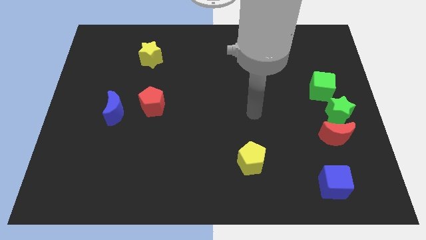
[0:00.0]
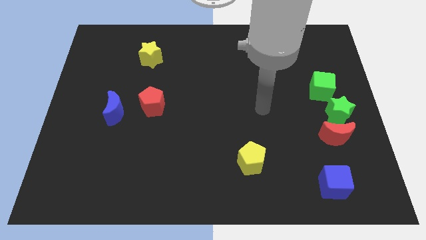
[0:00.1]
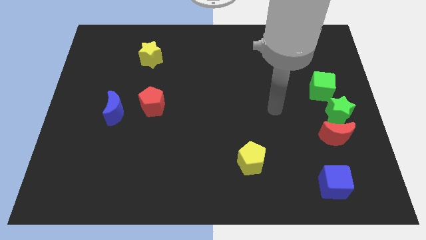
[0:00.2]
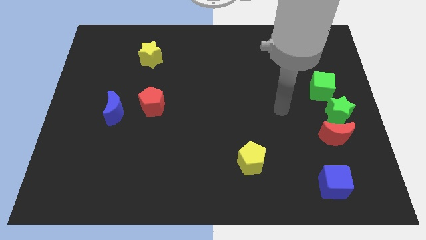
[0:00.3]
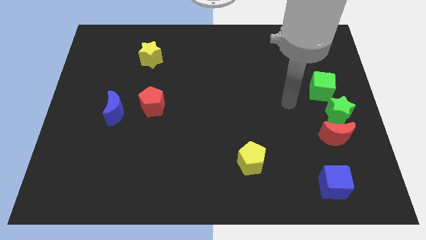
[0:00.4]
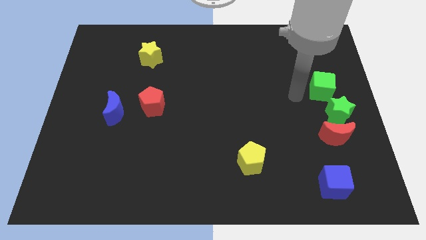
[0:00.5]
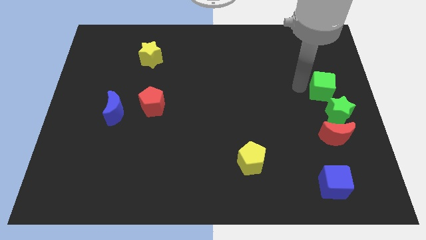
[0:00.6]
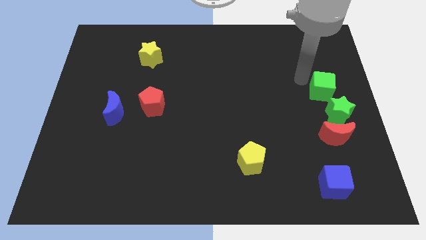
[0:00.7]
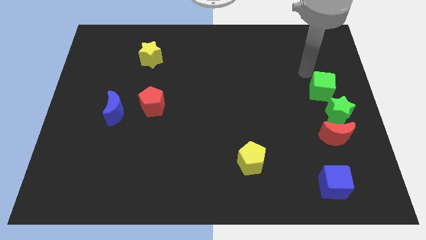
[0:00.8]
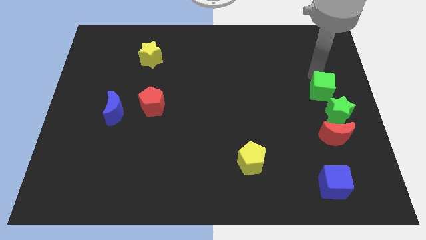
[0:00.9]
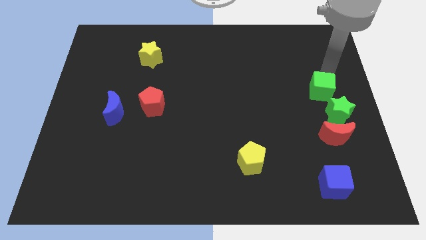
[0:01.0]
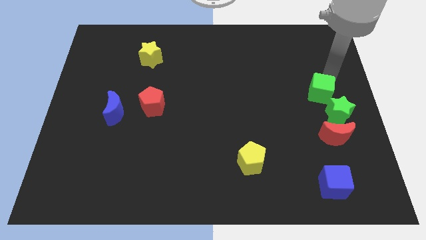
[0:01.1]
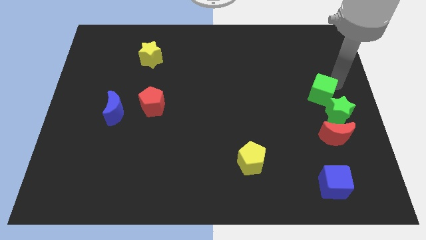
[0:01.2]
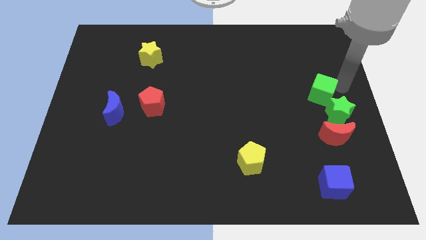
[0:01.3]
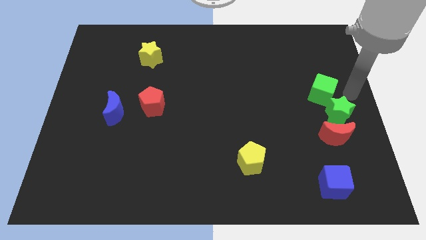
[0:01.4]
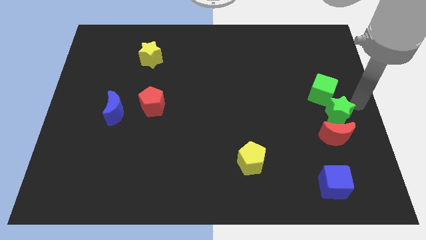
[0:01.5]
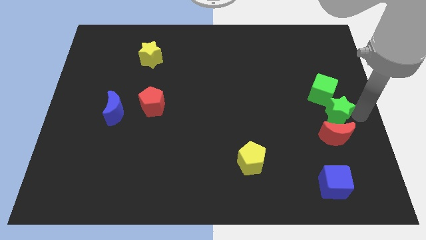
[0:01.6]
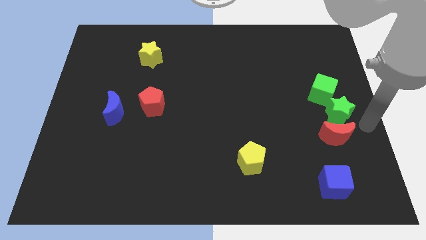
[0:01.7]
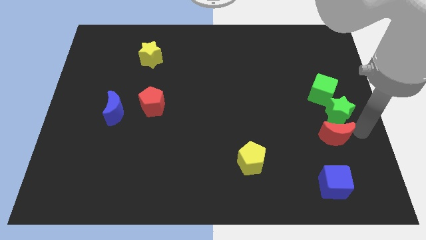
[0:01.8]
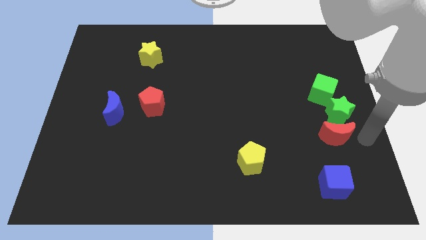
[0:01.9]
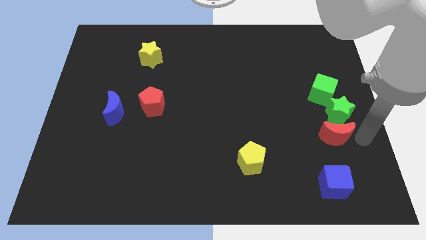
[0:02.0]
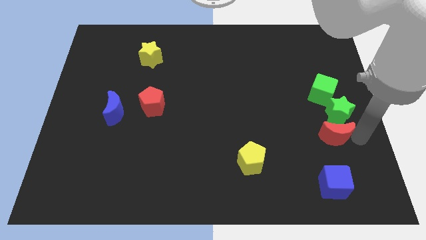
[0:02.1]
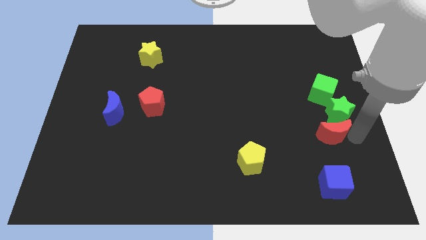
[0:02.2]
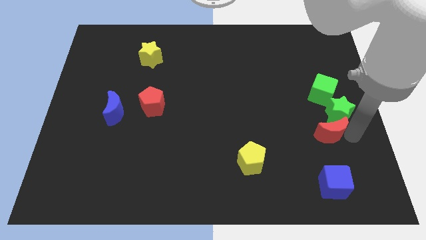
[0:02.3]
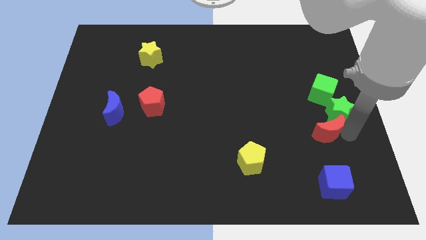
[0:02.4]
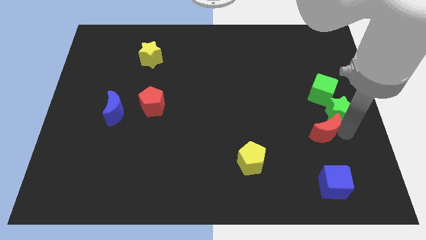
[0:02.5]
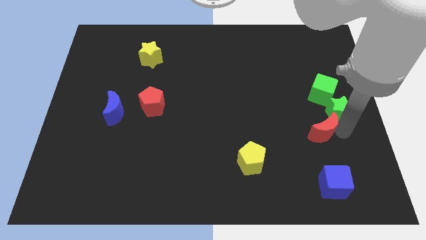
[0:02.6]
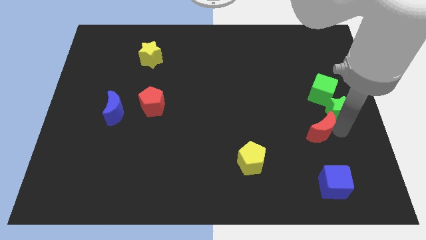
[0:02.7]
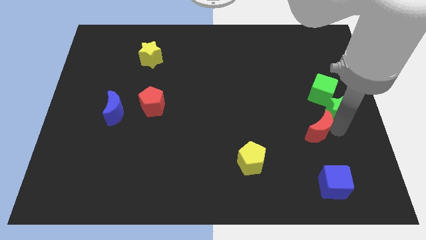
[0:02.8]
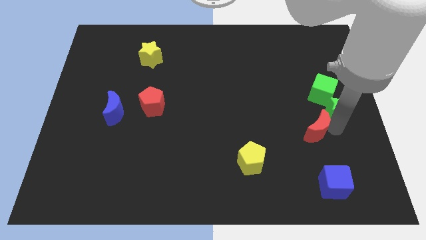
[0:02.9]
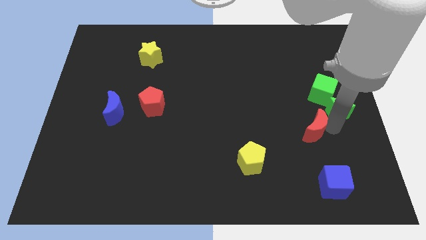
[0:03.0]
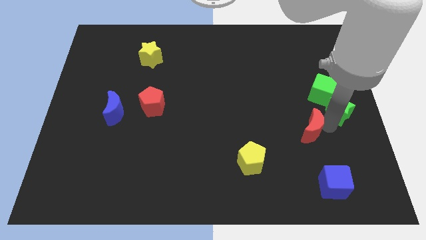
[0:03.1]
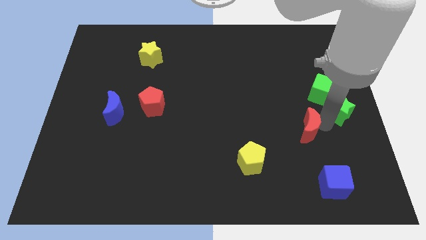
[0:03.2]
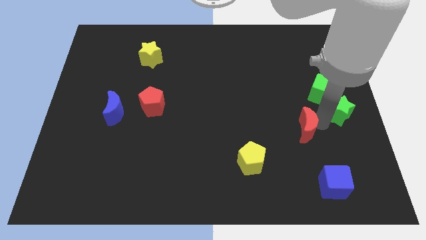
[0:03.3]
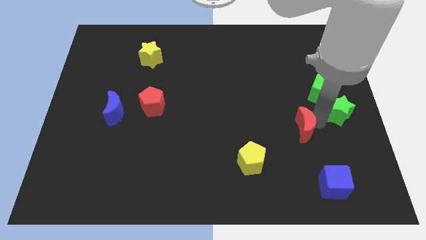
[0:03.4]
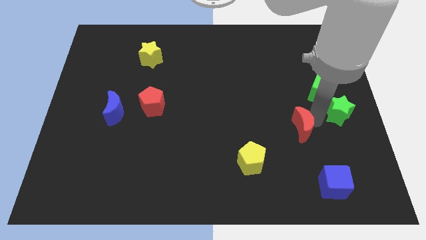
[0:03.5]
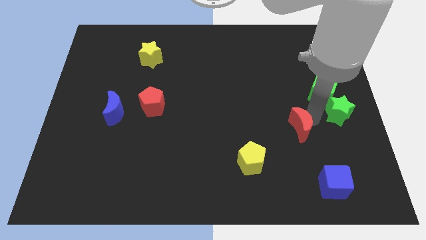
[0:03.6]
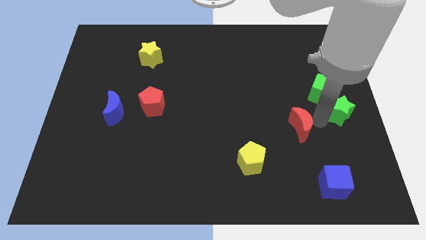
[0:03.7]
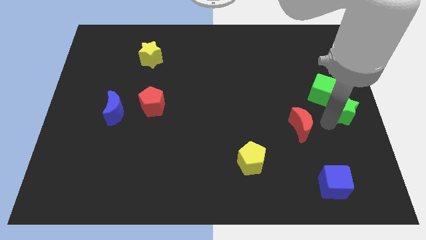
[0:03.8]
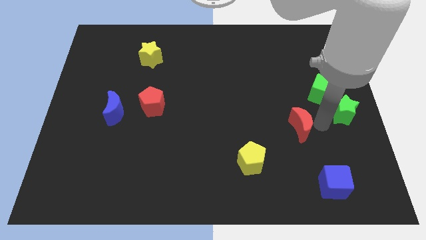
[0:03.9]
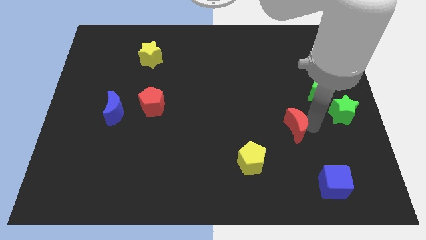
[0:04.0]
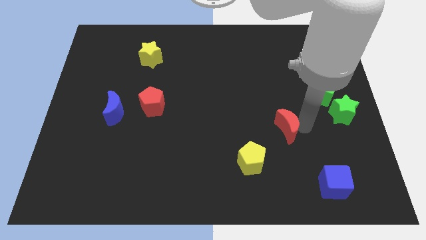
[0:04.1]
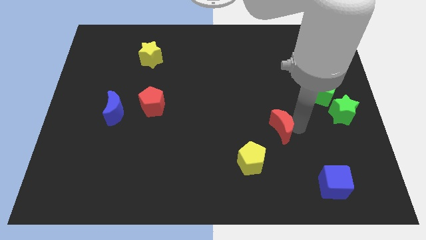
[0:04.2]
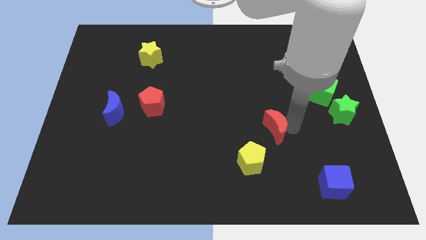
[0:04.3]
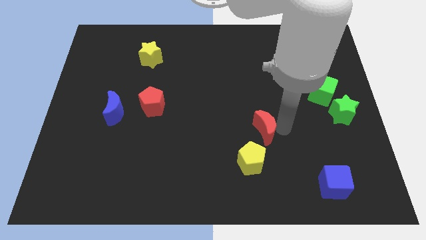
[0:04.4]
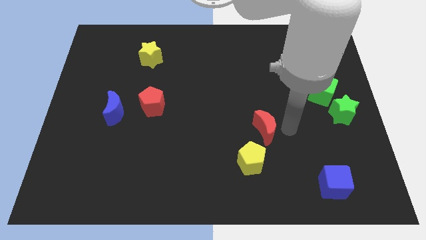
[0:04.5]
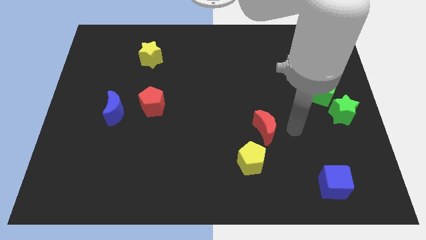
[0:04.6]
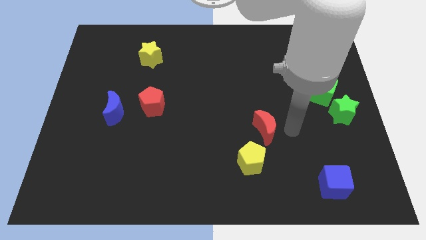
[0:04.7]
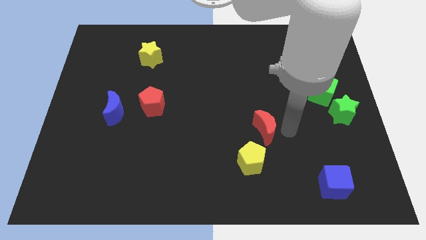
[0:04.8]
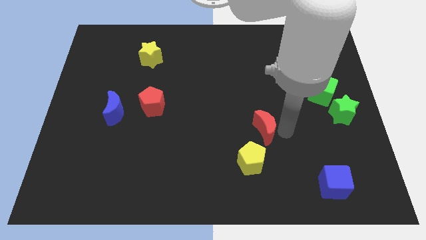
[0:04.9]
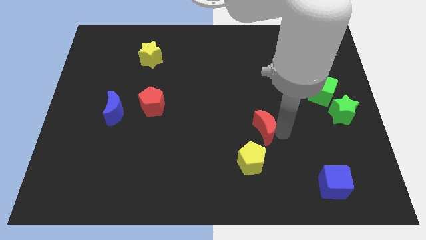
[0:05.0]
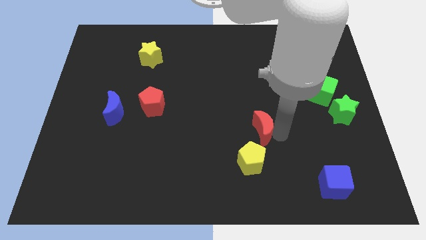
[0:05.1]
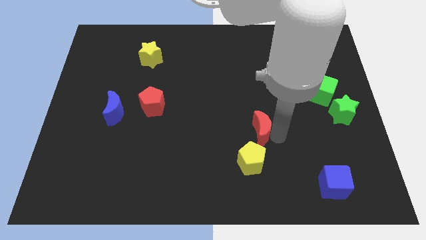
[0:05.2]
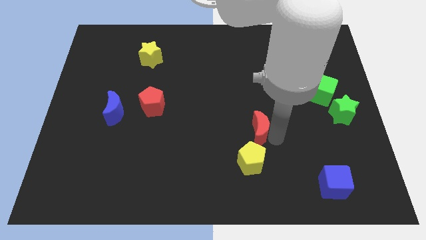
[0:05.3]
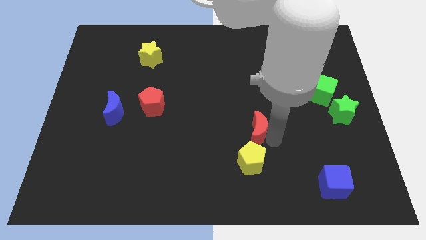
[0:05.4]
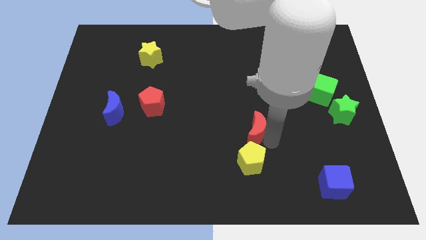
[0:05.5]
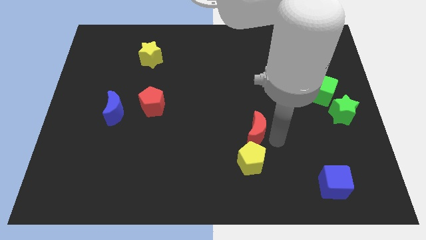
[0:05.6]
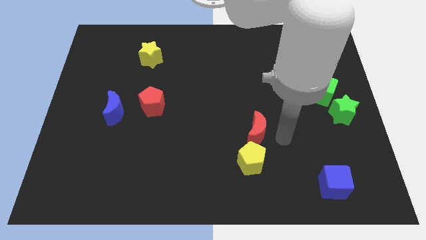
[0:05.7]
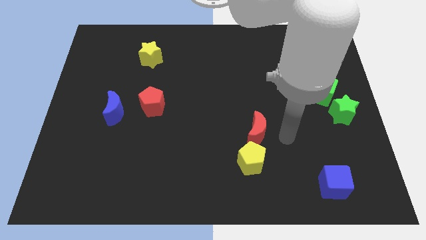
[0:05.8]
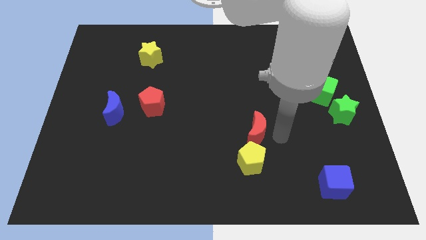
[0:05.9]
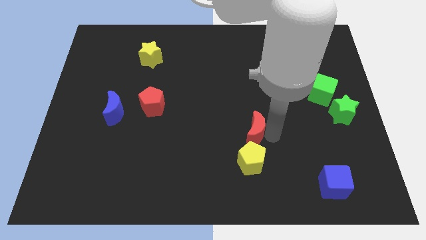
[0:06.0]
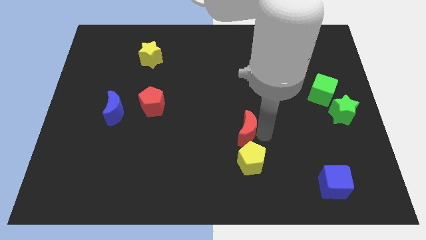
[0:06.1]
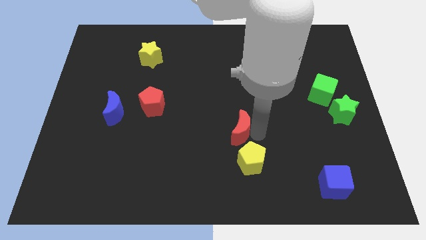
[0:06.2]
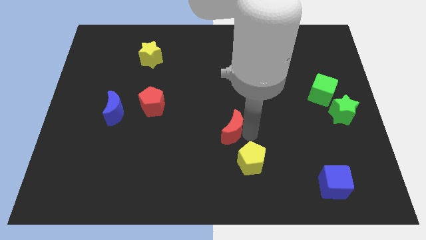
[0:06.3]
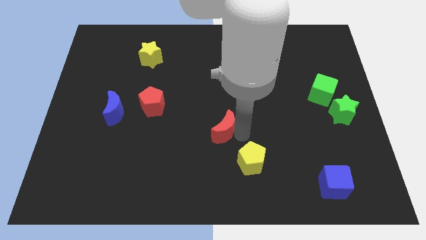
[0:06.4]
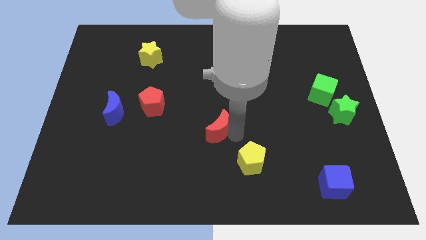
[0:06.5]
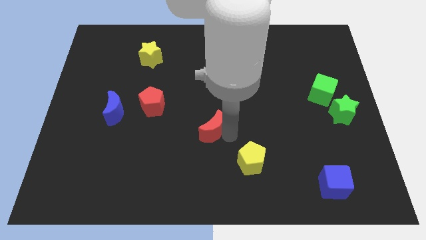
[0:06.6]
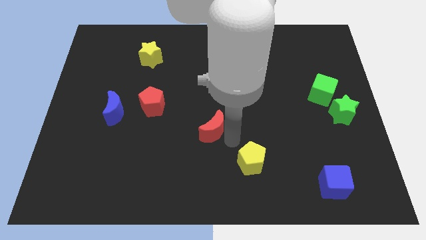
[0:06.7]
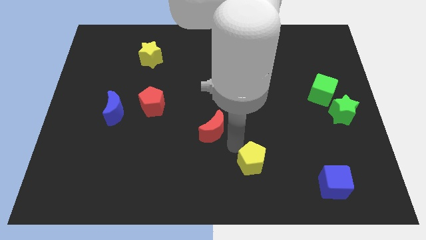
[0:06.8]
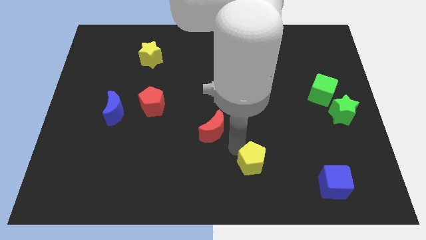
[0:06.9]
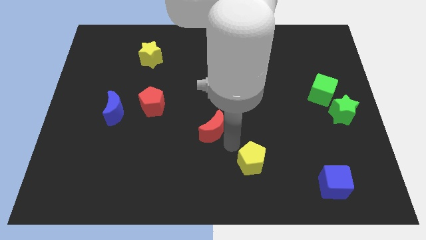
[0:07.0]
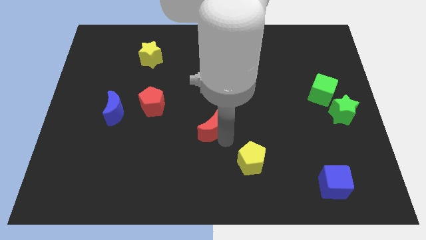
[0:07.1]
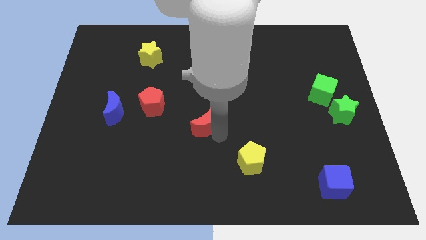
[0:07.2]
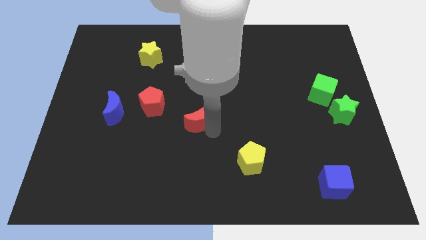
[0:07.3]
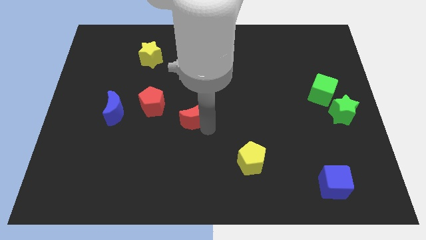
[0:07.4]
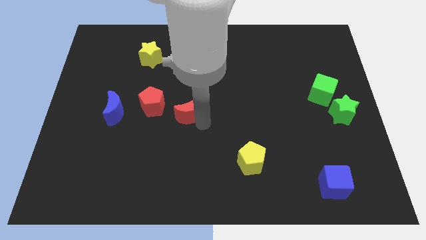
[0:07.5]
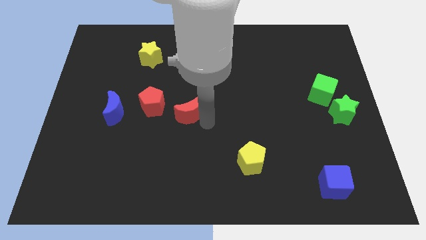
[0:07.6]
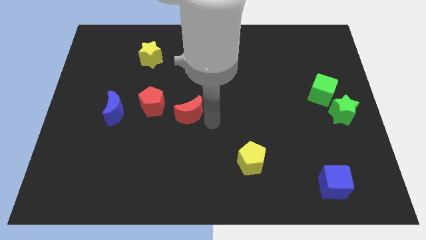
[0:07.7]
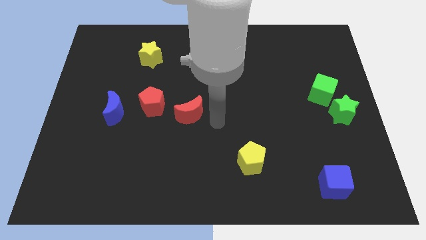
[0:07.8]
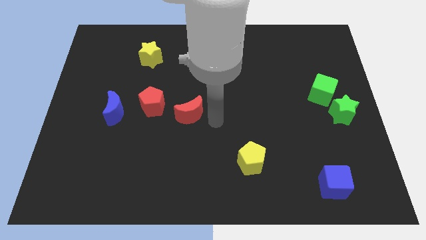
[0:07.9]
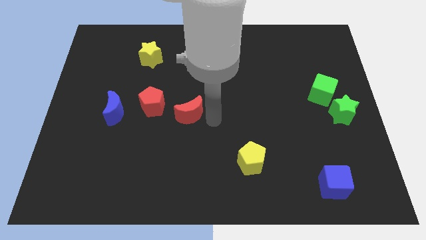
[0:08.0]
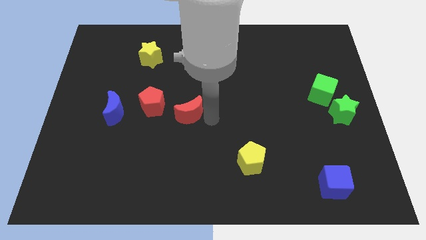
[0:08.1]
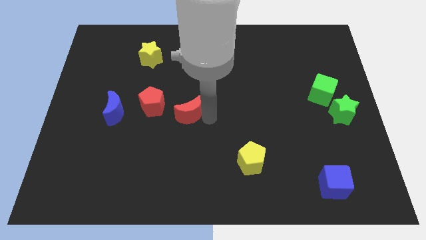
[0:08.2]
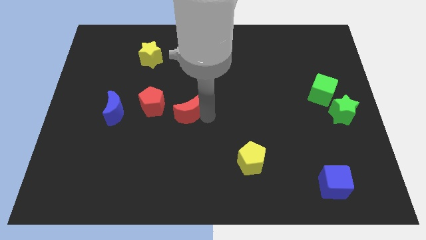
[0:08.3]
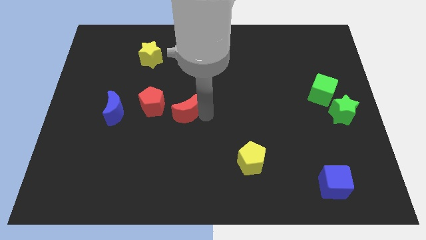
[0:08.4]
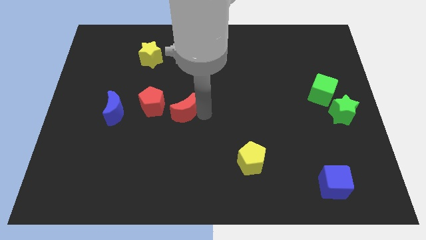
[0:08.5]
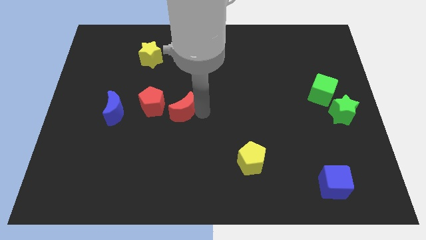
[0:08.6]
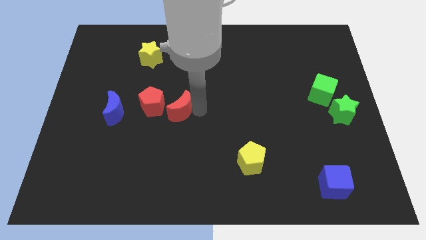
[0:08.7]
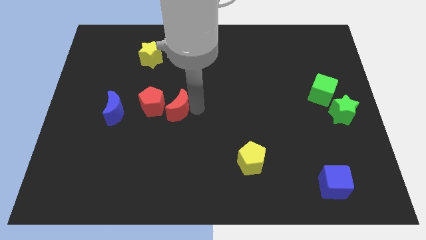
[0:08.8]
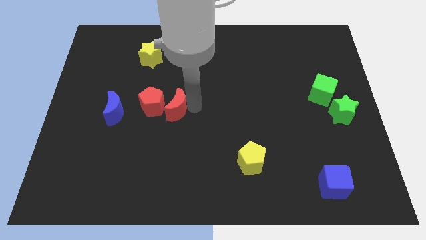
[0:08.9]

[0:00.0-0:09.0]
move the red moon close to the red pentagon
